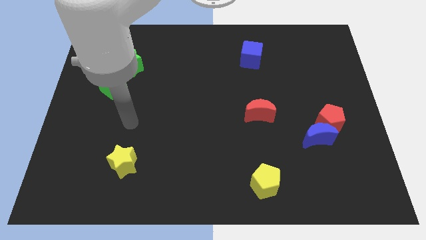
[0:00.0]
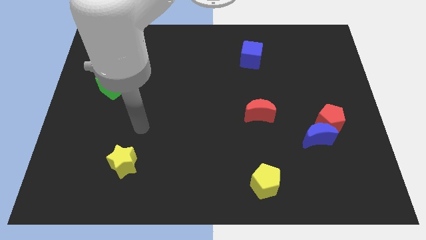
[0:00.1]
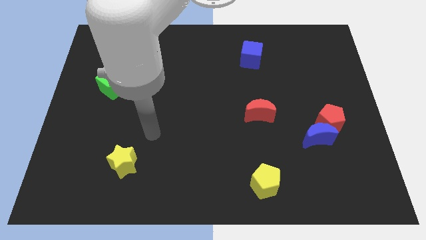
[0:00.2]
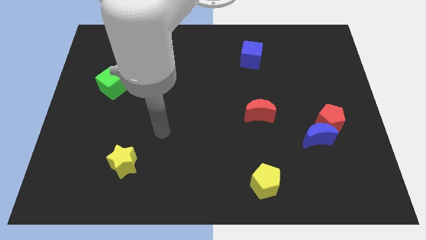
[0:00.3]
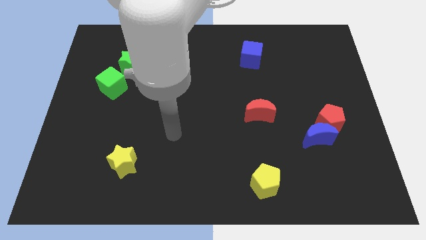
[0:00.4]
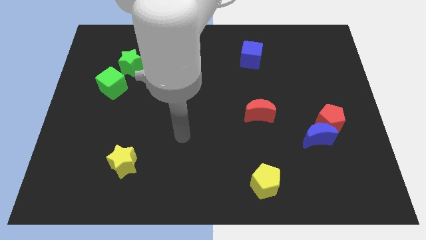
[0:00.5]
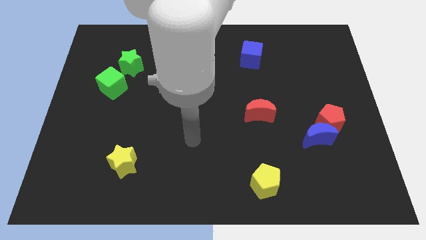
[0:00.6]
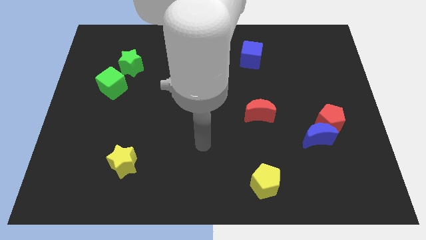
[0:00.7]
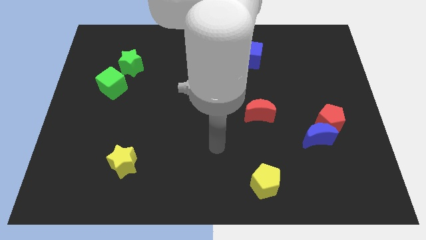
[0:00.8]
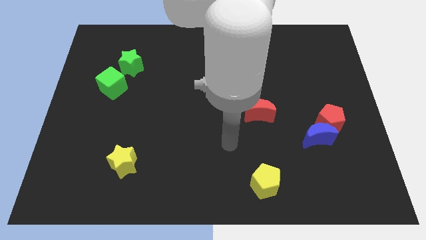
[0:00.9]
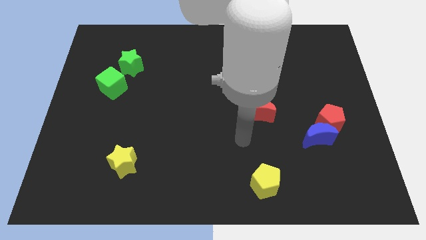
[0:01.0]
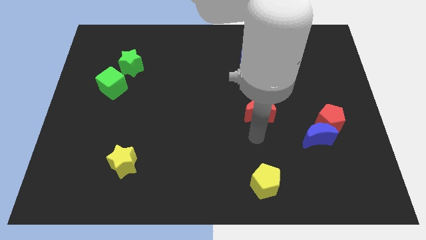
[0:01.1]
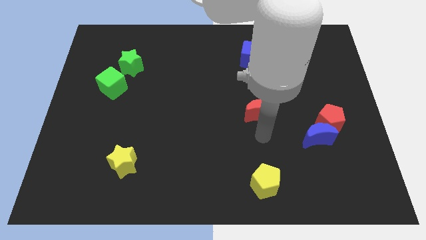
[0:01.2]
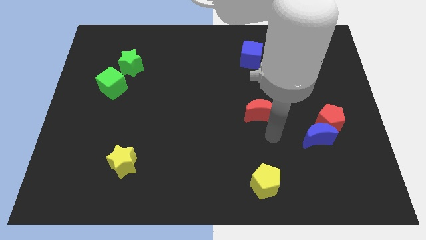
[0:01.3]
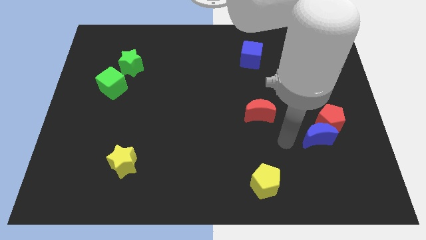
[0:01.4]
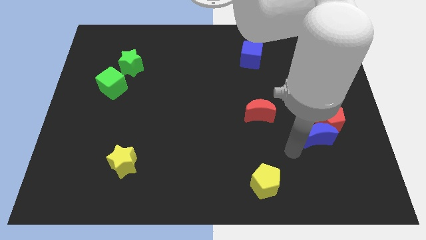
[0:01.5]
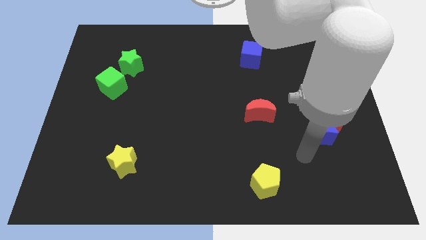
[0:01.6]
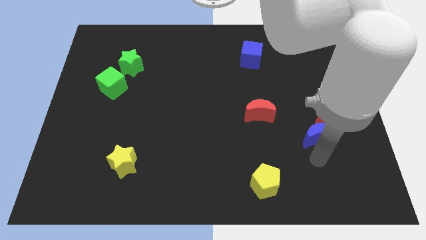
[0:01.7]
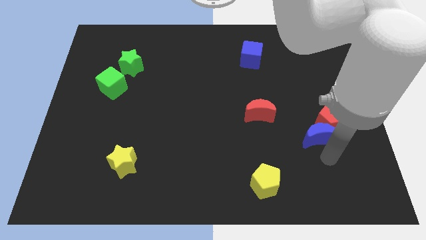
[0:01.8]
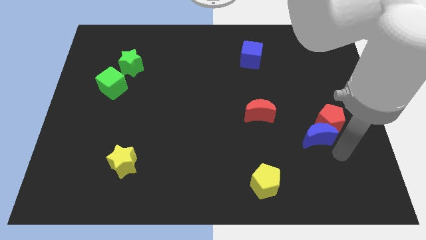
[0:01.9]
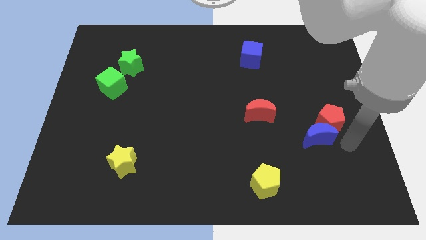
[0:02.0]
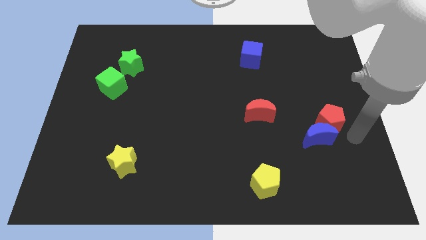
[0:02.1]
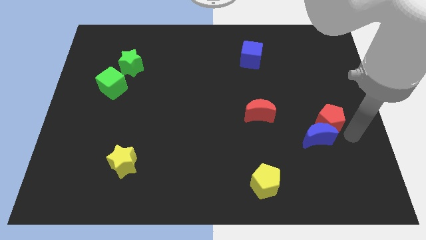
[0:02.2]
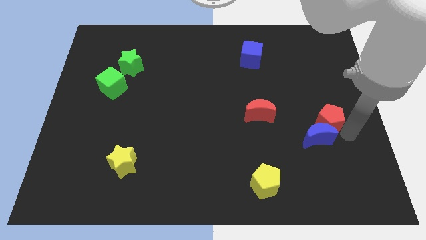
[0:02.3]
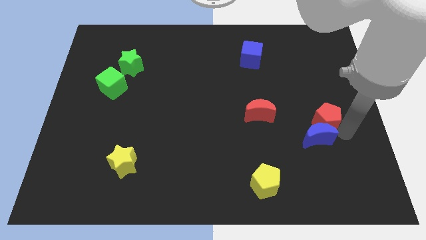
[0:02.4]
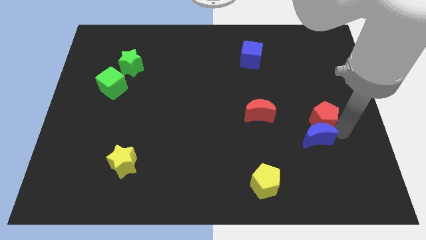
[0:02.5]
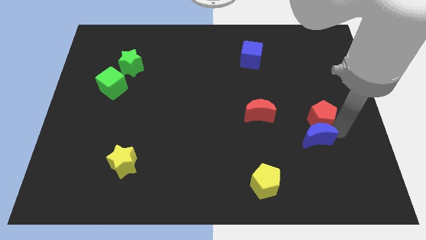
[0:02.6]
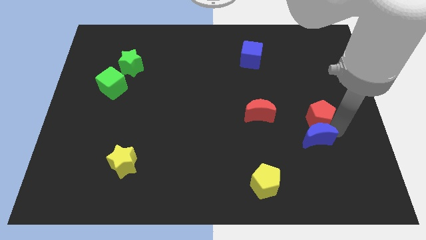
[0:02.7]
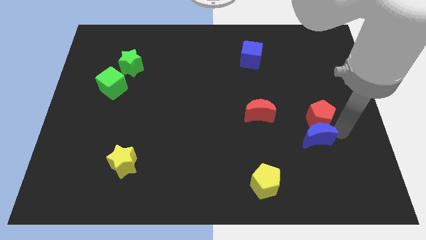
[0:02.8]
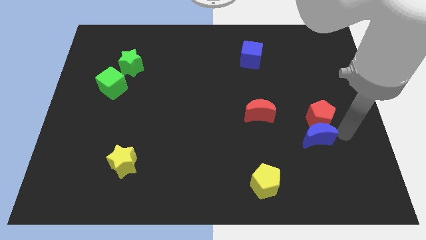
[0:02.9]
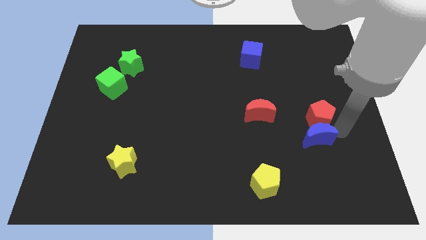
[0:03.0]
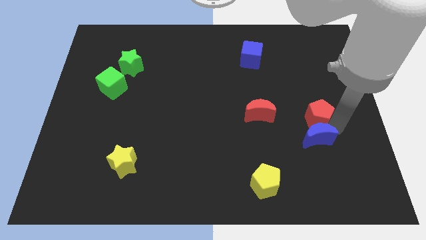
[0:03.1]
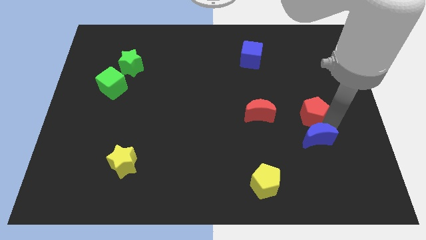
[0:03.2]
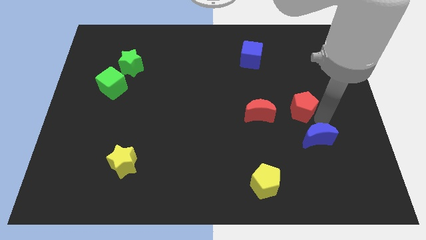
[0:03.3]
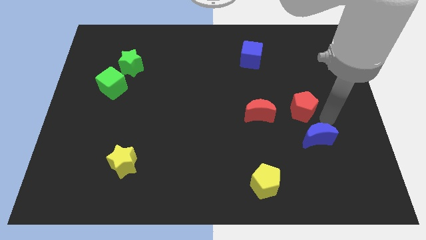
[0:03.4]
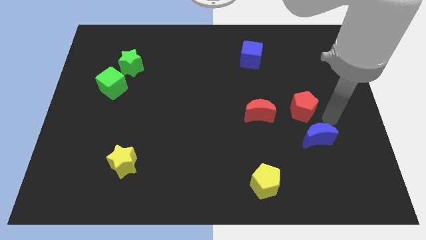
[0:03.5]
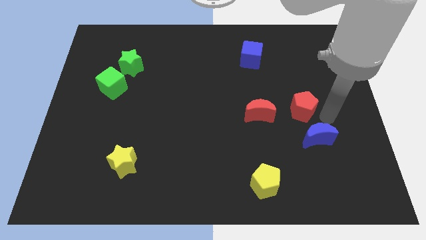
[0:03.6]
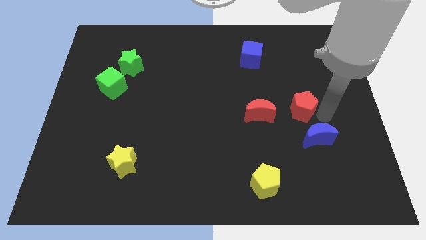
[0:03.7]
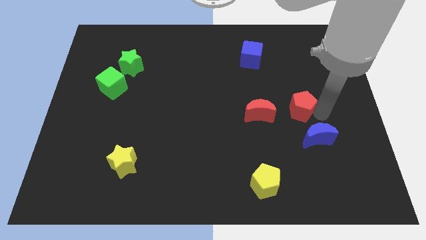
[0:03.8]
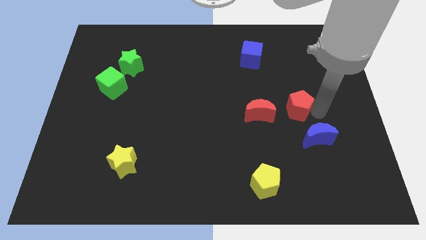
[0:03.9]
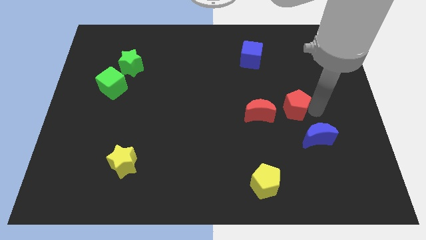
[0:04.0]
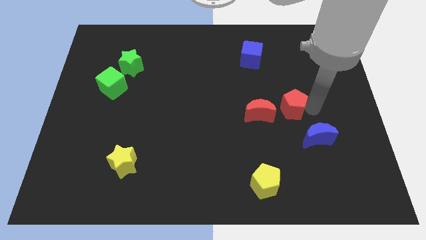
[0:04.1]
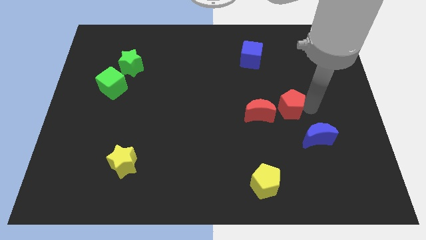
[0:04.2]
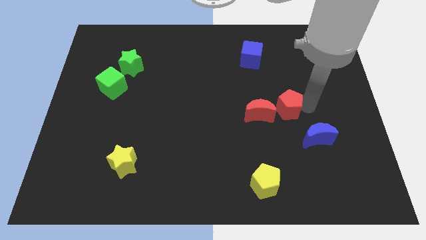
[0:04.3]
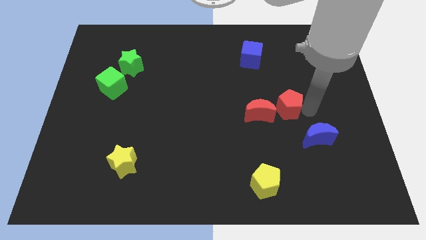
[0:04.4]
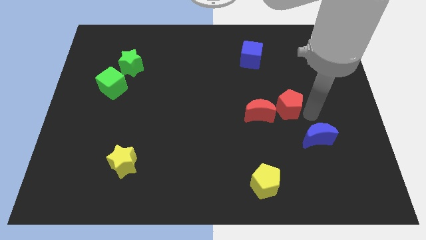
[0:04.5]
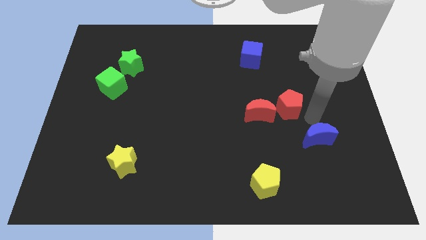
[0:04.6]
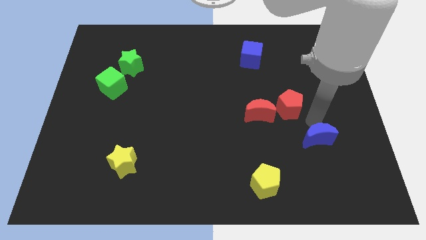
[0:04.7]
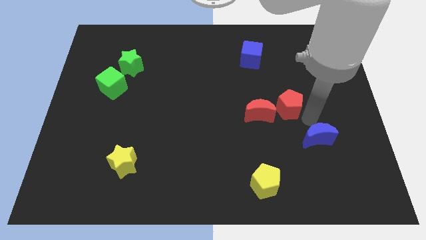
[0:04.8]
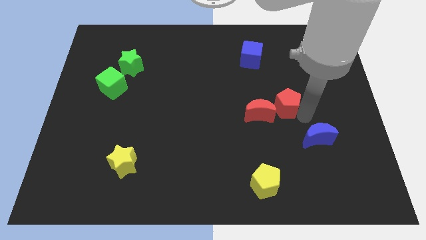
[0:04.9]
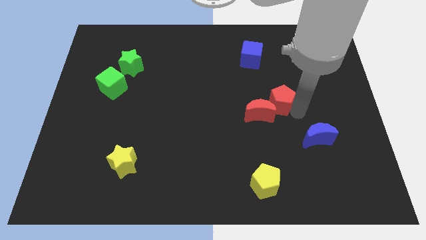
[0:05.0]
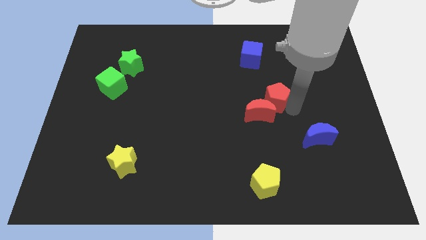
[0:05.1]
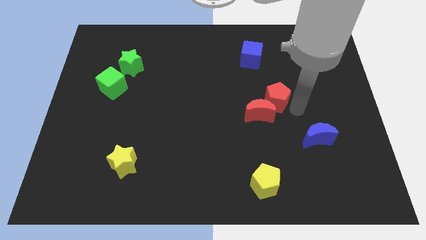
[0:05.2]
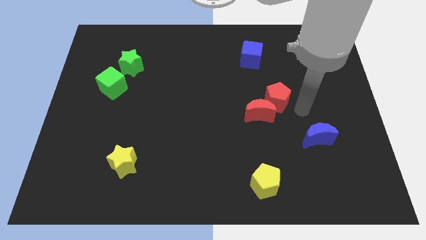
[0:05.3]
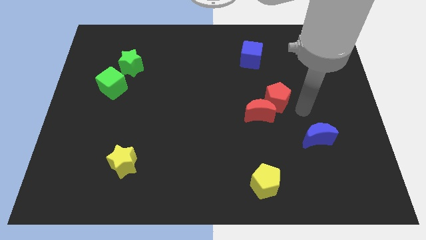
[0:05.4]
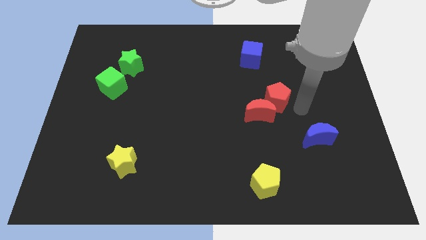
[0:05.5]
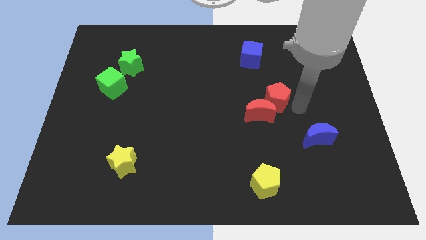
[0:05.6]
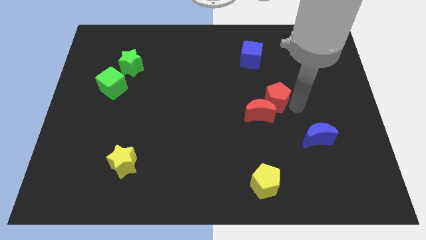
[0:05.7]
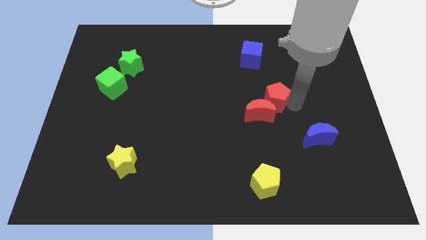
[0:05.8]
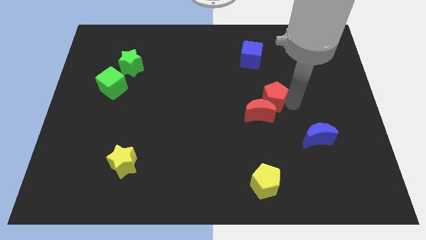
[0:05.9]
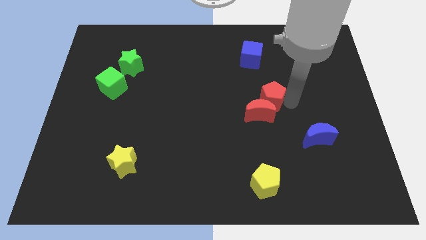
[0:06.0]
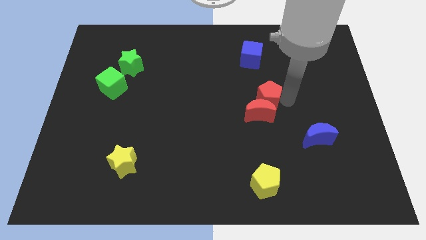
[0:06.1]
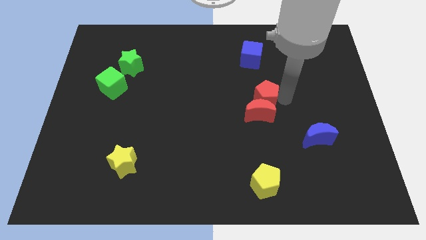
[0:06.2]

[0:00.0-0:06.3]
put the red pentagon to the middle
